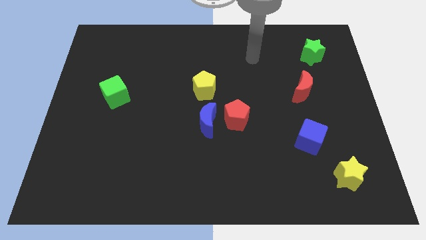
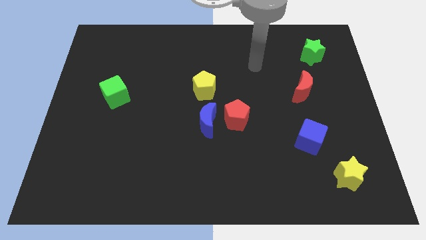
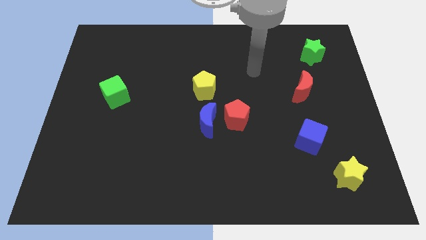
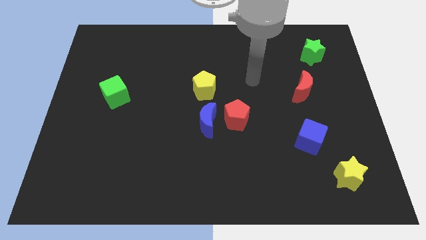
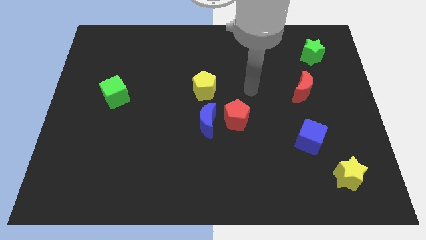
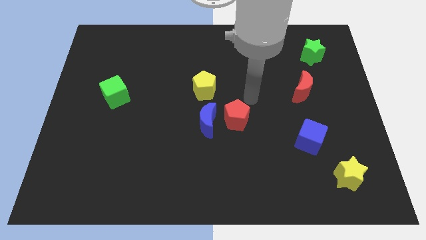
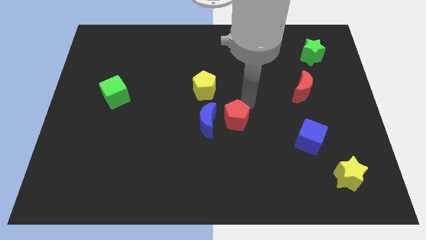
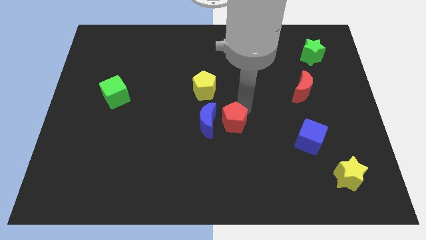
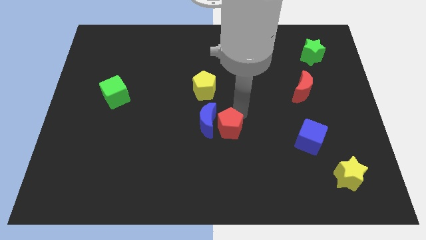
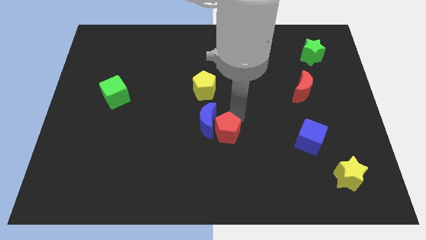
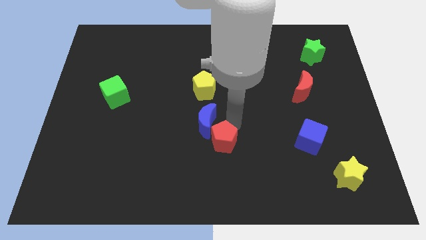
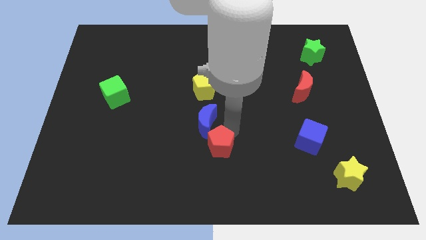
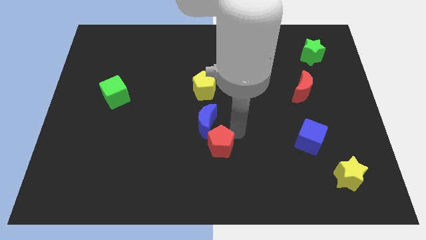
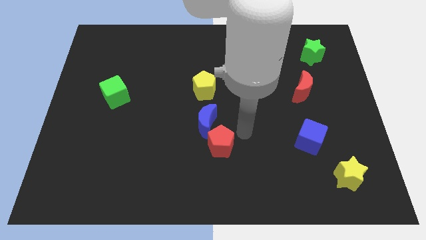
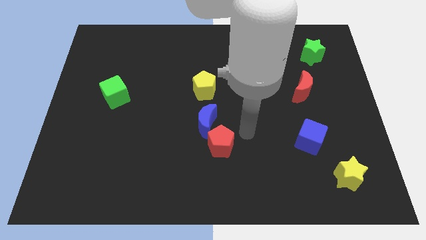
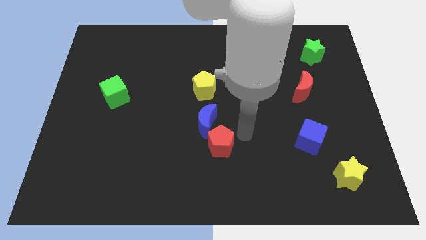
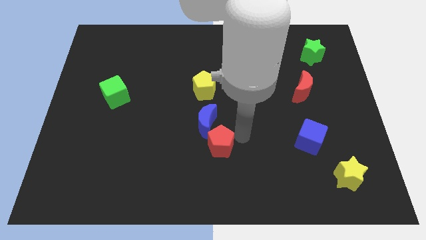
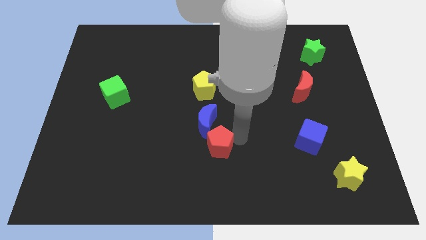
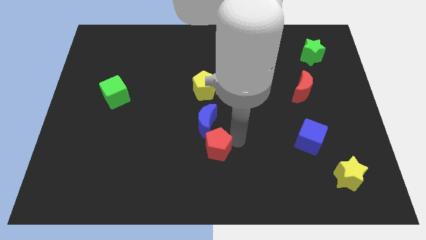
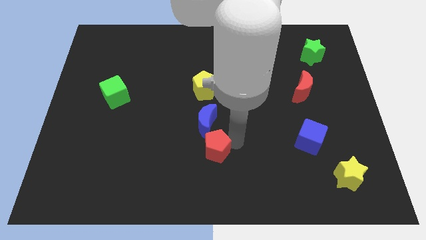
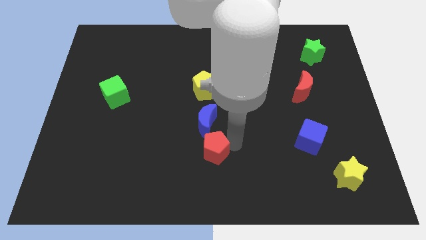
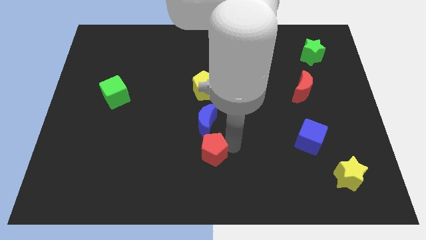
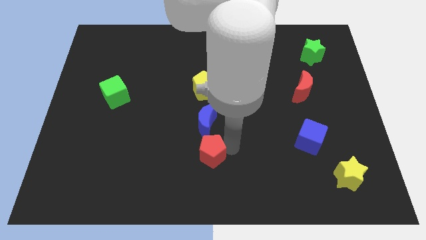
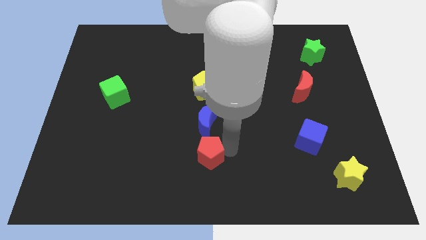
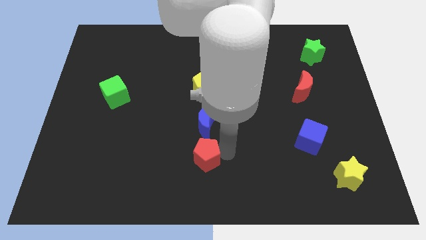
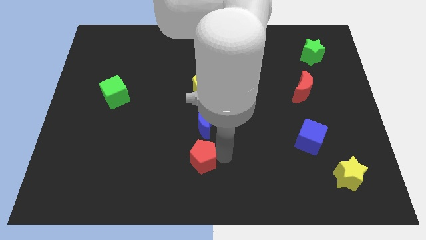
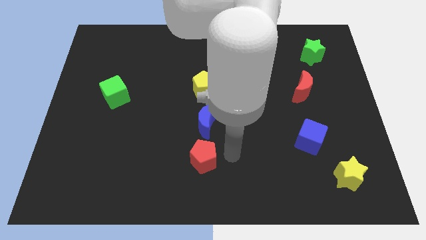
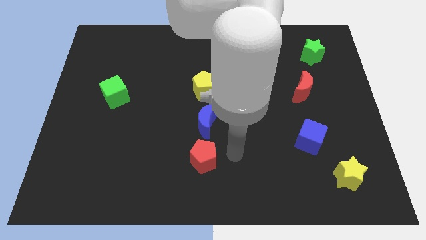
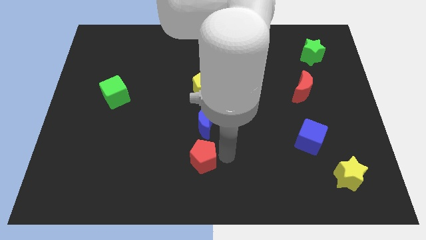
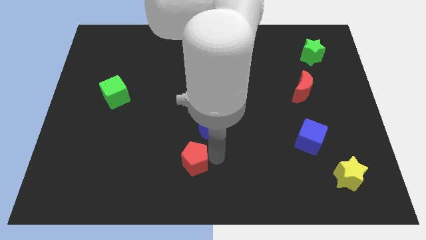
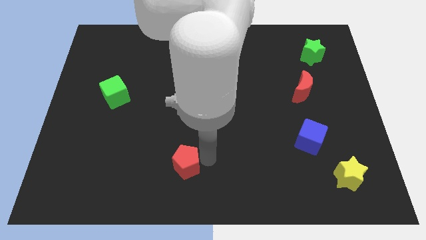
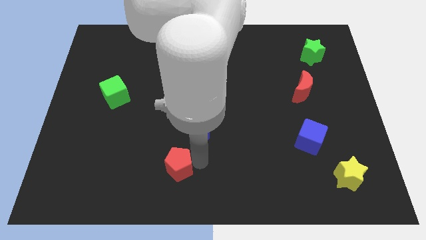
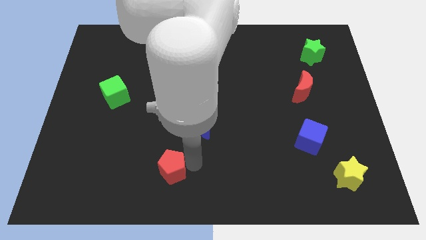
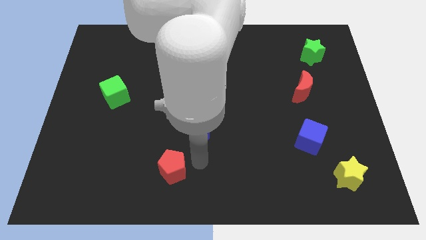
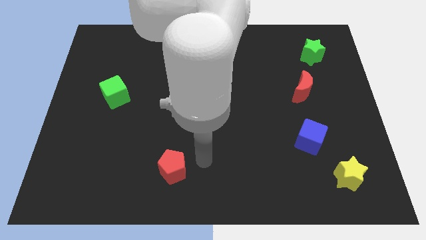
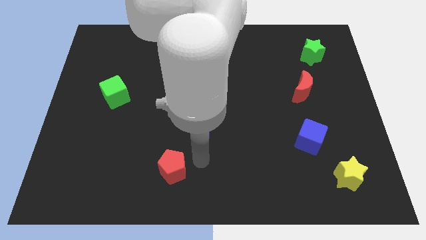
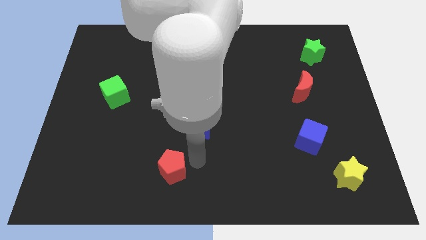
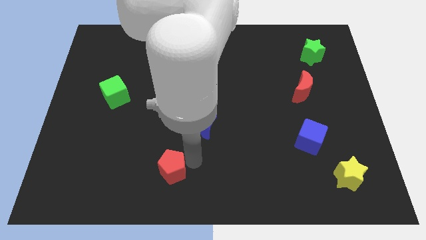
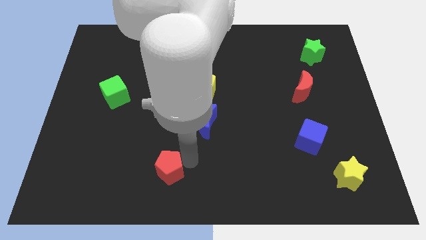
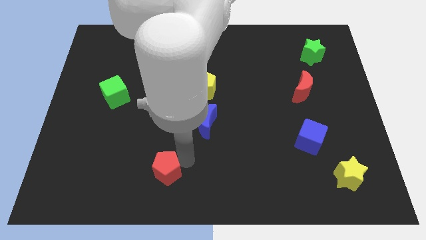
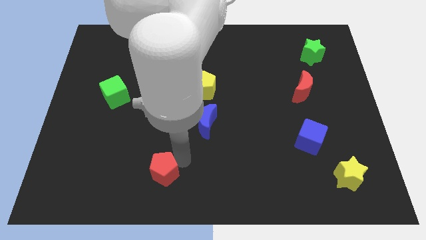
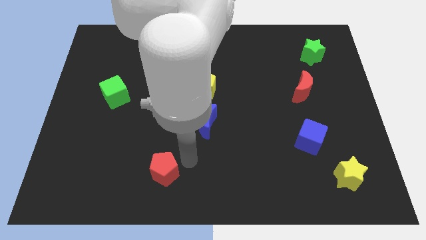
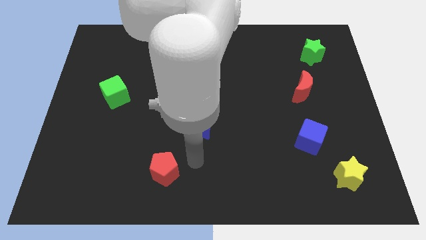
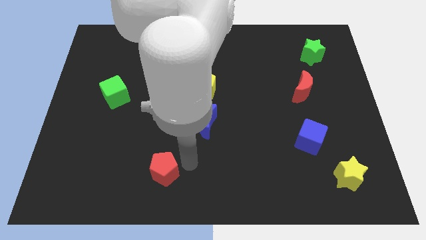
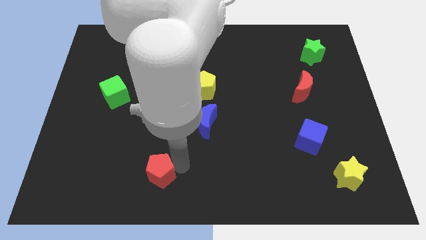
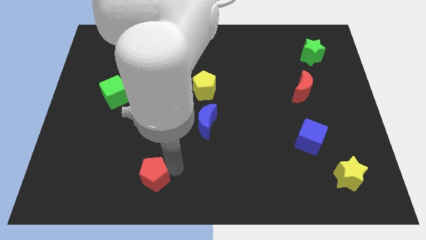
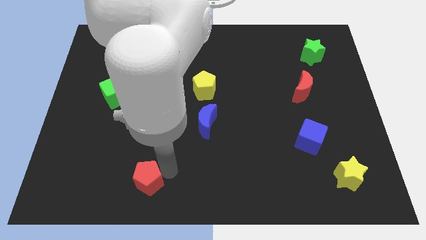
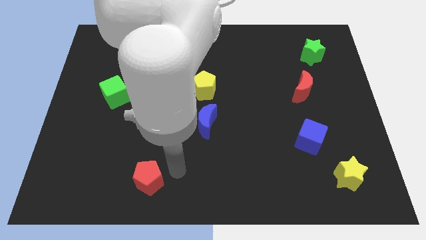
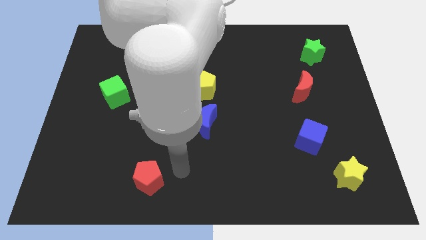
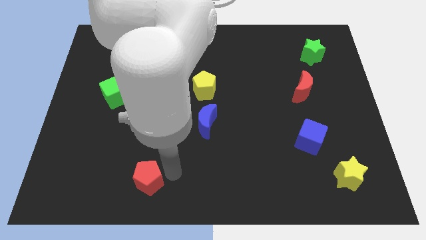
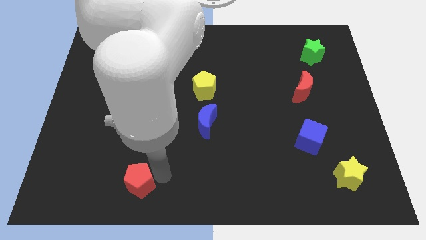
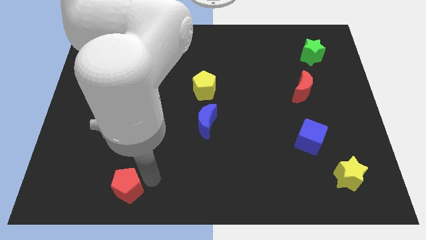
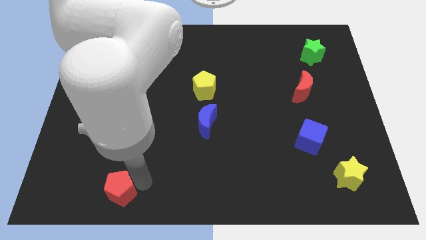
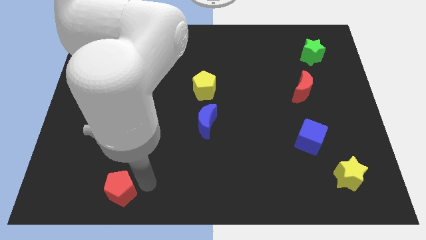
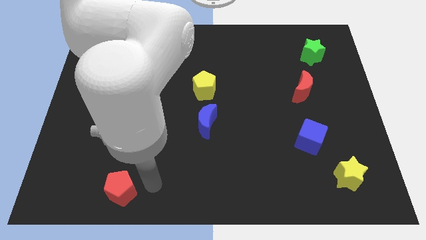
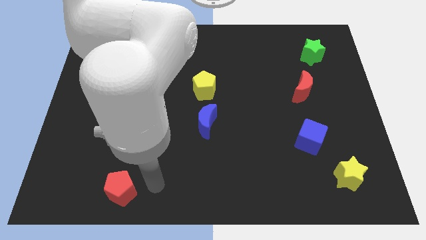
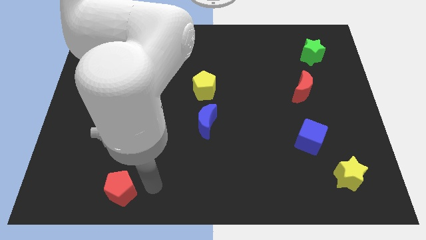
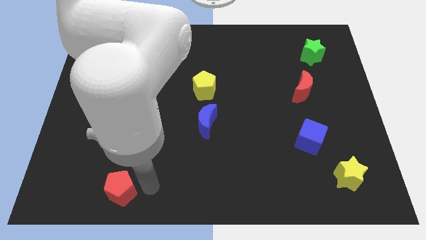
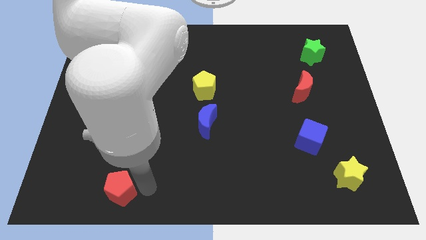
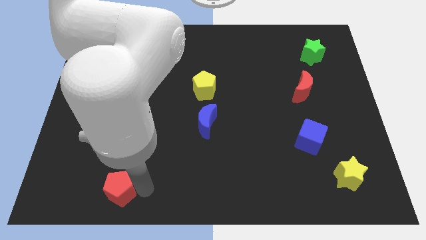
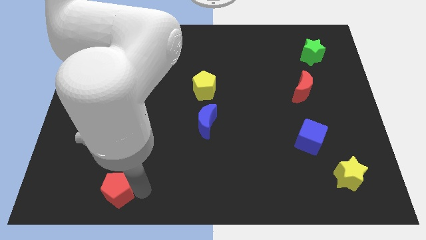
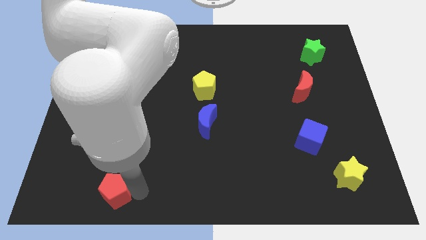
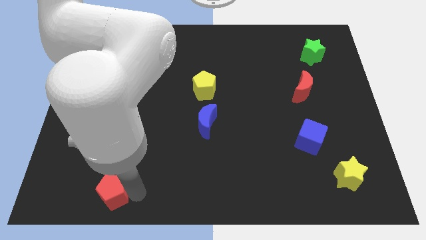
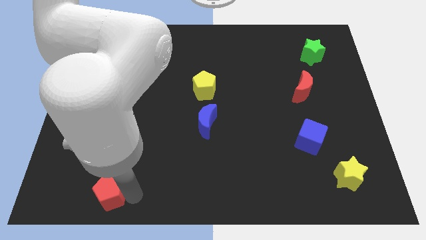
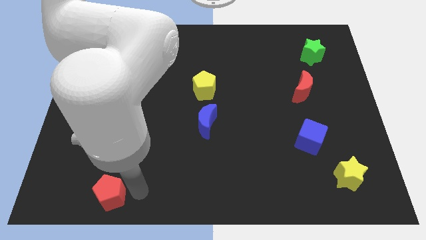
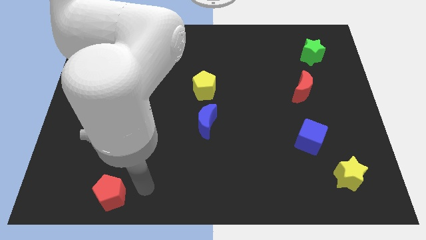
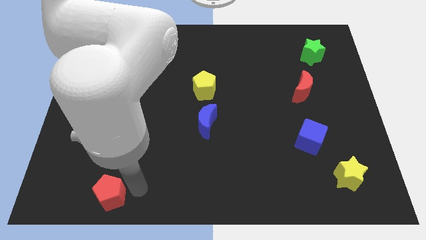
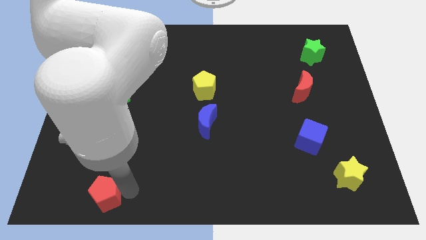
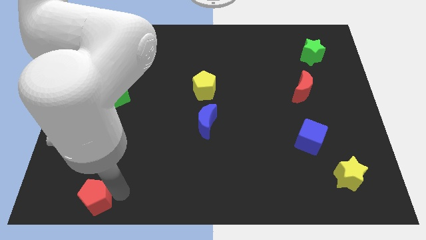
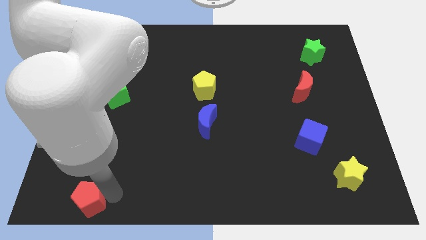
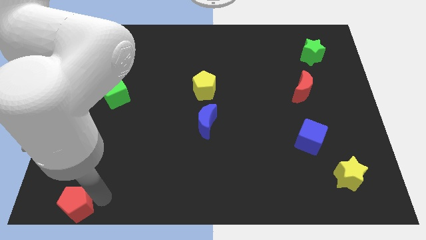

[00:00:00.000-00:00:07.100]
slide the red pentagon to the lower left corner
